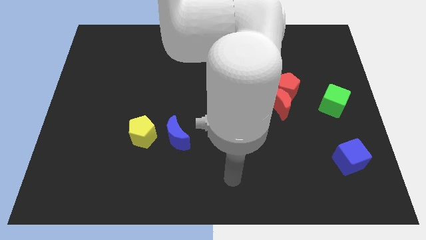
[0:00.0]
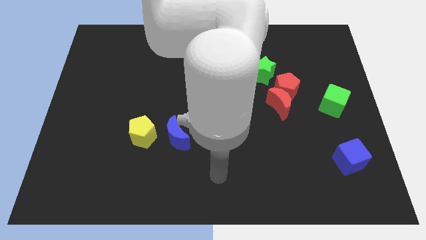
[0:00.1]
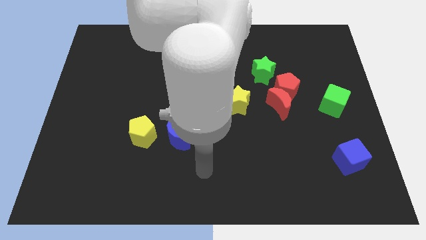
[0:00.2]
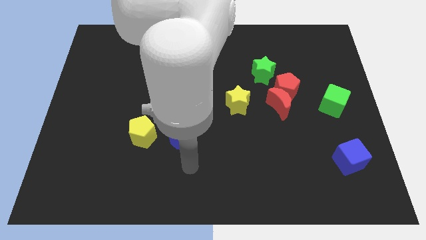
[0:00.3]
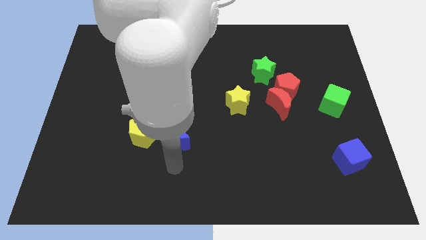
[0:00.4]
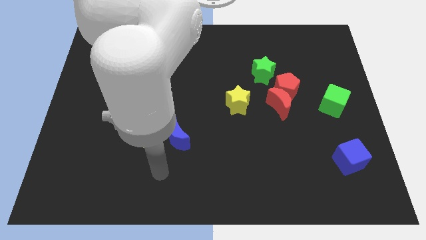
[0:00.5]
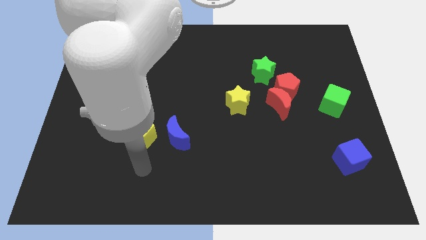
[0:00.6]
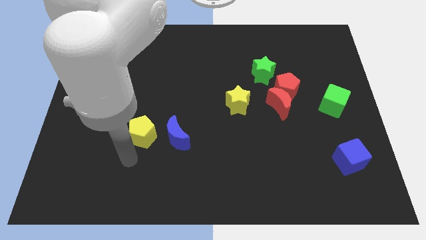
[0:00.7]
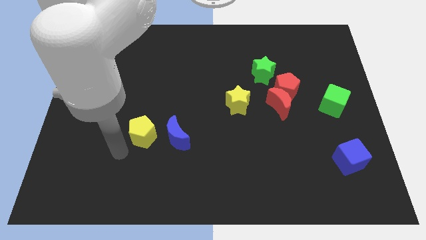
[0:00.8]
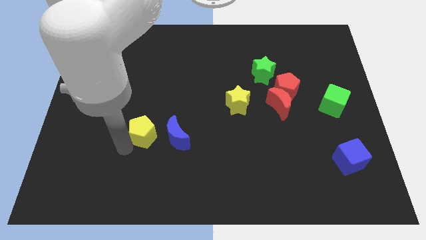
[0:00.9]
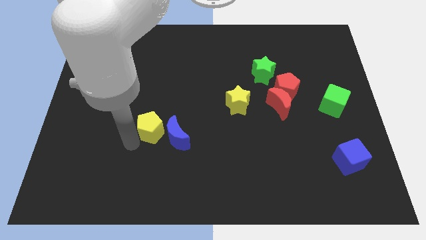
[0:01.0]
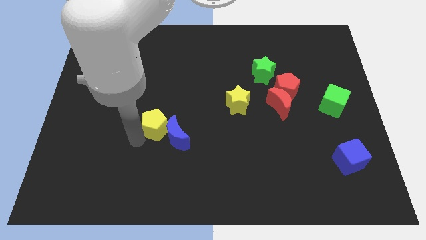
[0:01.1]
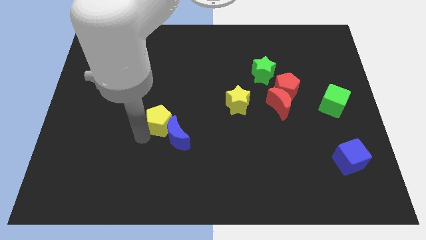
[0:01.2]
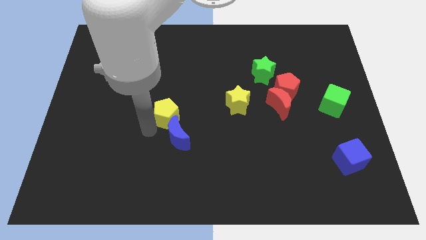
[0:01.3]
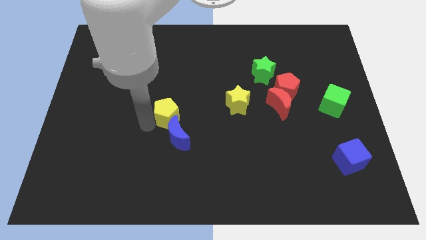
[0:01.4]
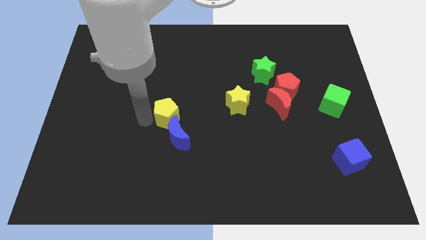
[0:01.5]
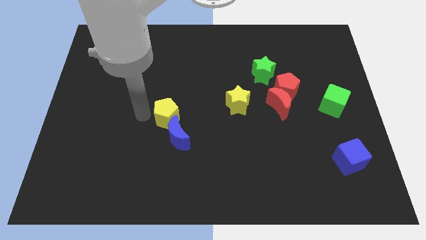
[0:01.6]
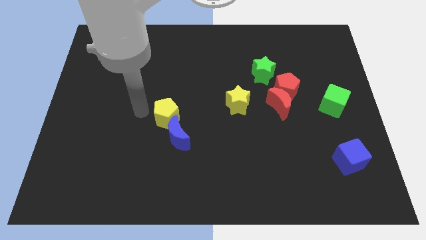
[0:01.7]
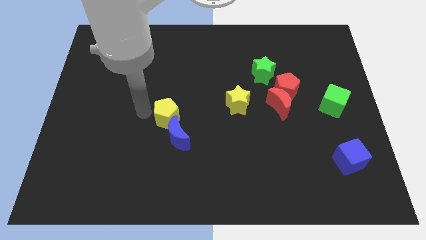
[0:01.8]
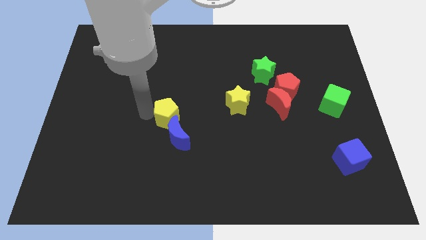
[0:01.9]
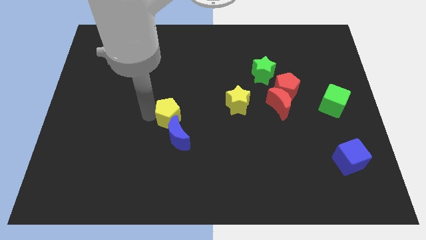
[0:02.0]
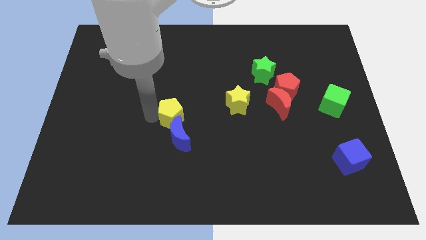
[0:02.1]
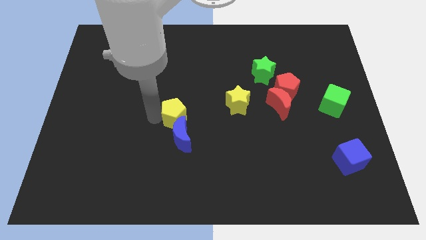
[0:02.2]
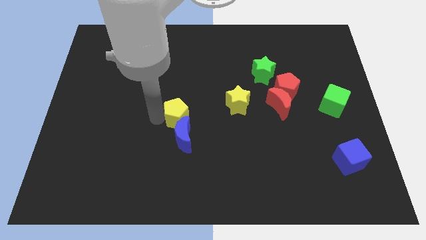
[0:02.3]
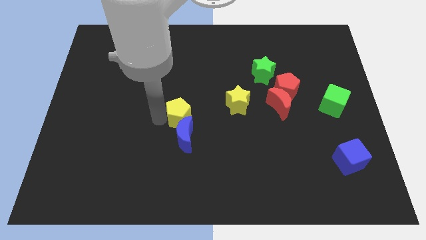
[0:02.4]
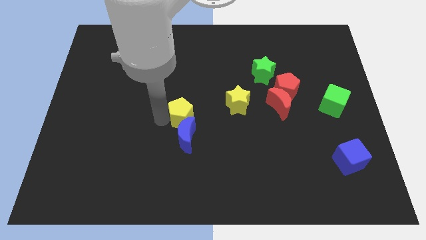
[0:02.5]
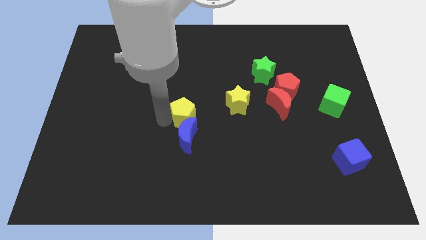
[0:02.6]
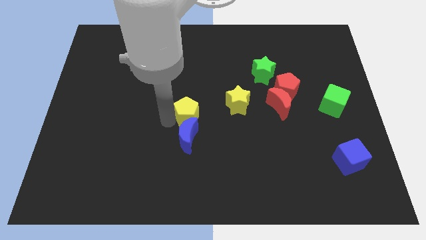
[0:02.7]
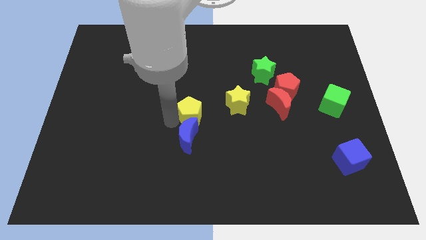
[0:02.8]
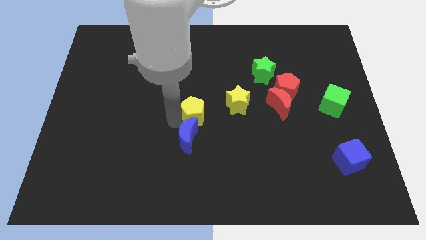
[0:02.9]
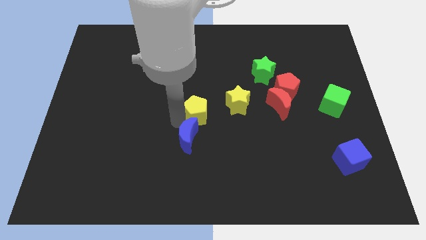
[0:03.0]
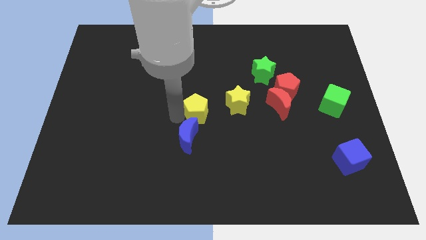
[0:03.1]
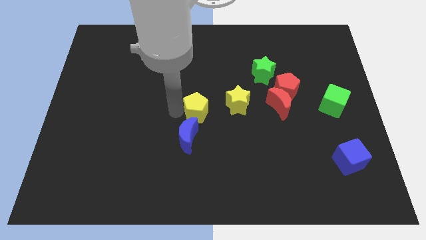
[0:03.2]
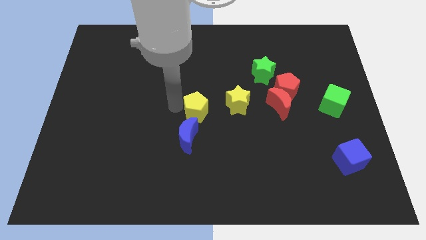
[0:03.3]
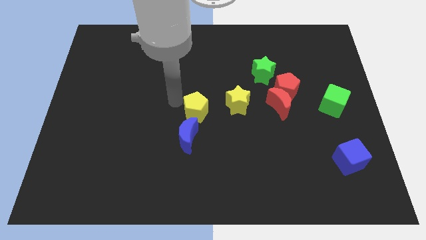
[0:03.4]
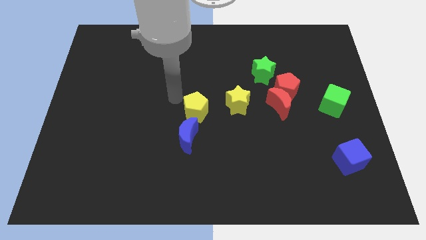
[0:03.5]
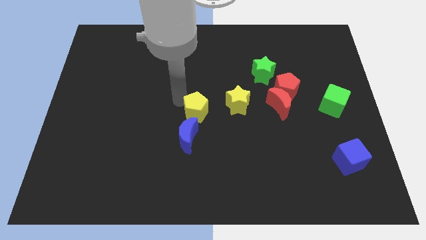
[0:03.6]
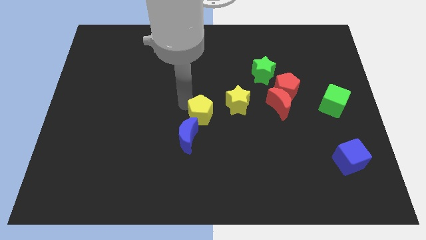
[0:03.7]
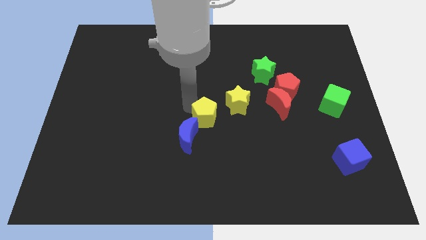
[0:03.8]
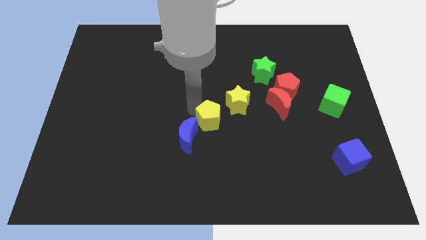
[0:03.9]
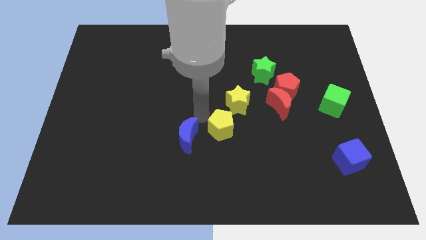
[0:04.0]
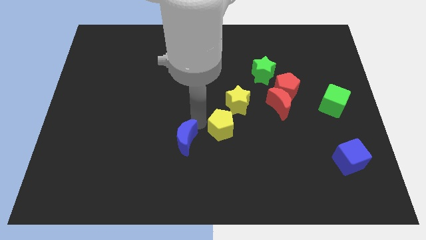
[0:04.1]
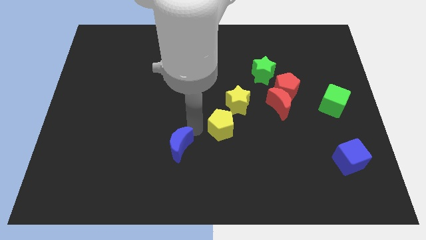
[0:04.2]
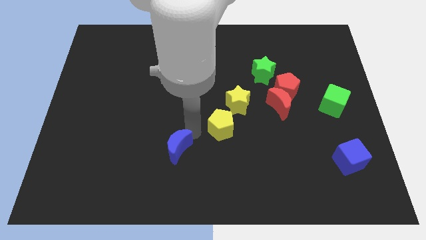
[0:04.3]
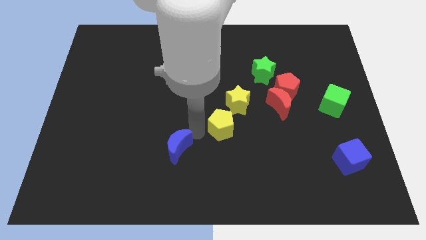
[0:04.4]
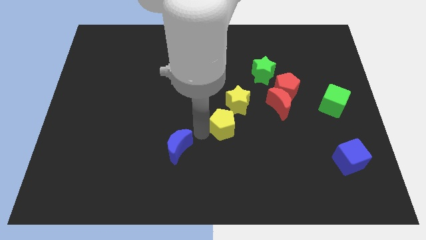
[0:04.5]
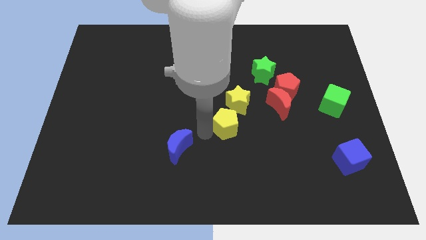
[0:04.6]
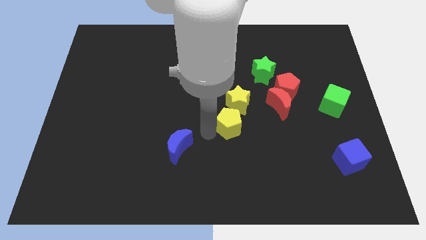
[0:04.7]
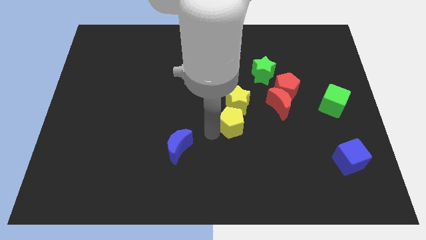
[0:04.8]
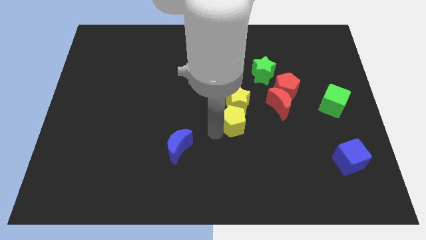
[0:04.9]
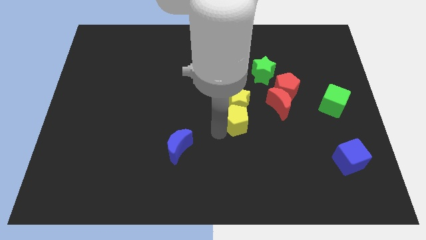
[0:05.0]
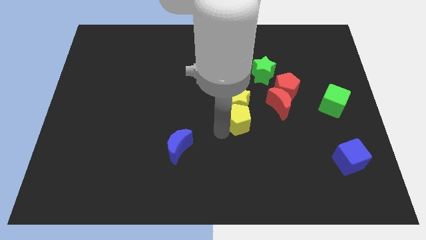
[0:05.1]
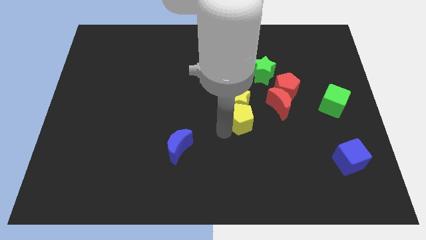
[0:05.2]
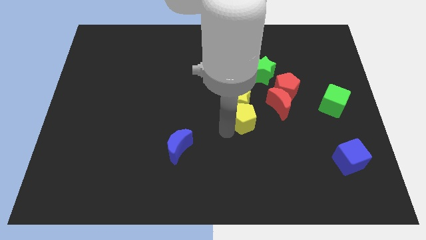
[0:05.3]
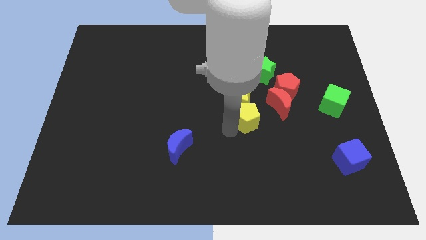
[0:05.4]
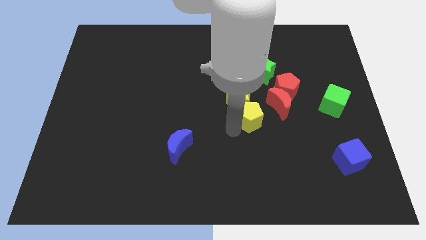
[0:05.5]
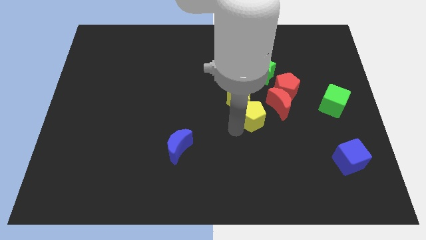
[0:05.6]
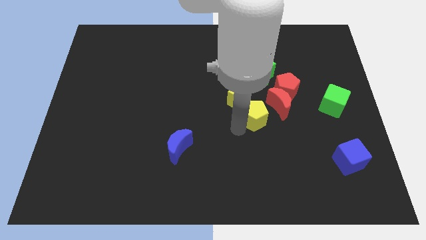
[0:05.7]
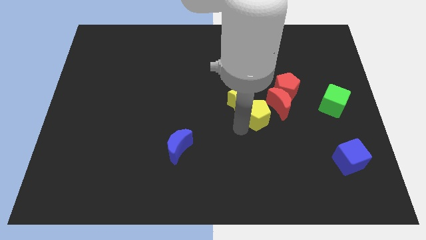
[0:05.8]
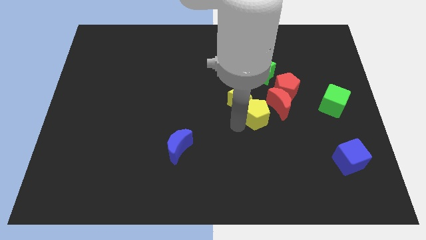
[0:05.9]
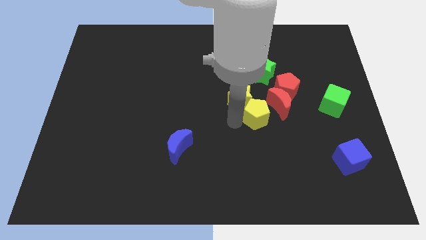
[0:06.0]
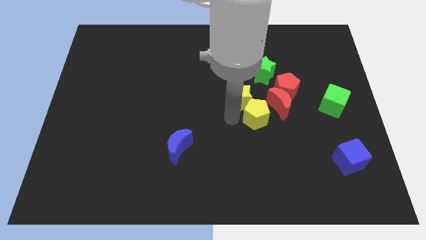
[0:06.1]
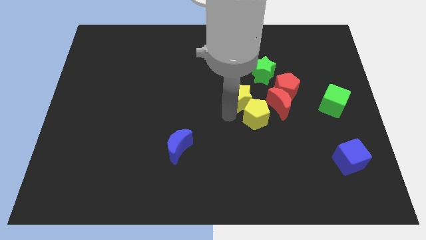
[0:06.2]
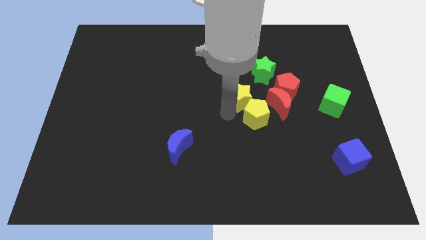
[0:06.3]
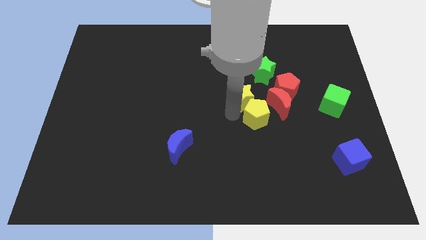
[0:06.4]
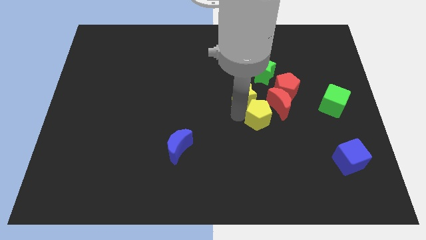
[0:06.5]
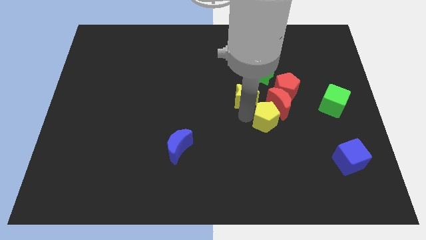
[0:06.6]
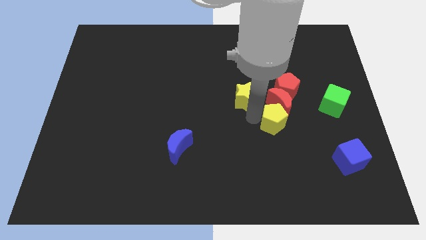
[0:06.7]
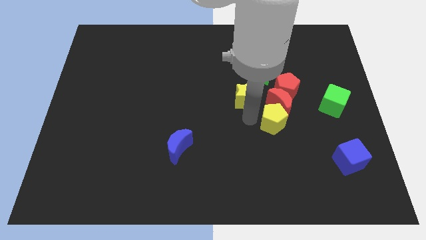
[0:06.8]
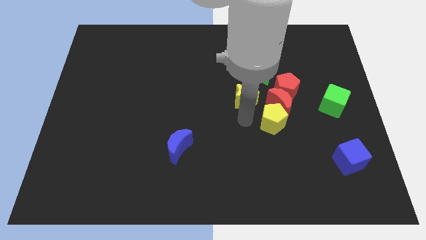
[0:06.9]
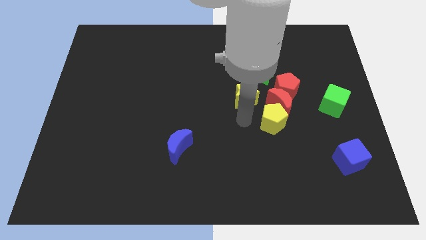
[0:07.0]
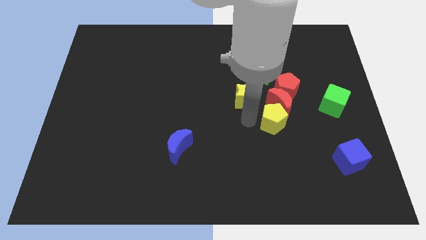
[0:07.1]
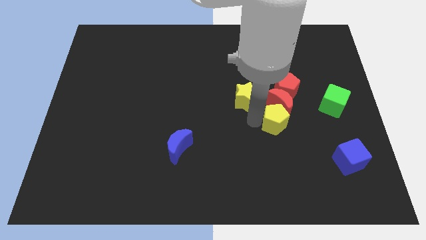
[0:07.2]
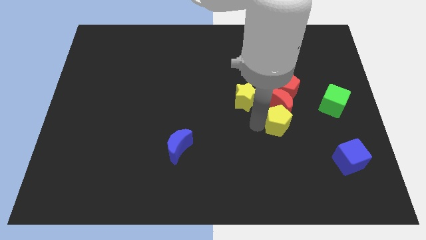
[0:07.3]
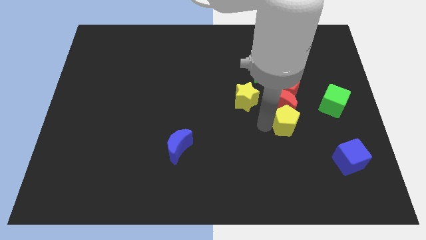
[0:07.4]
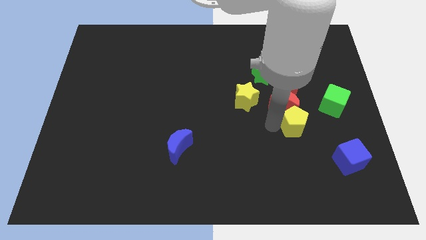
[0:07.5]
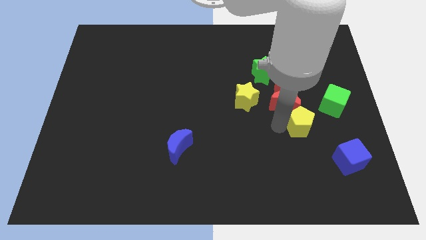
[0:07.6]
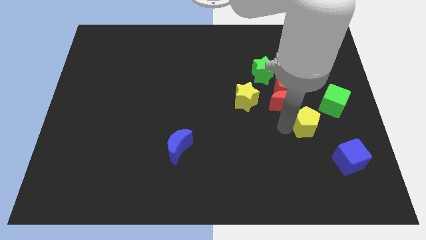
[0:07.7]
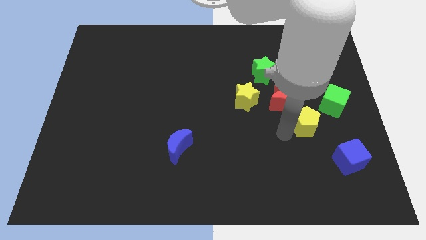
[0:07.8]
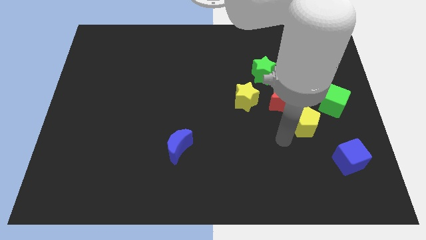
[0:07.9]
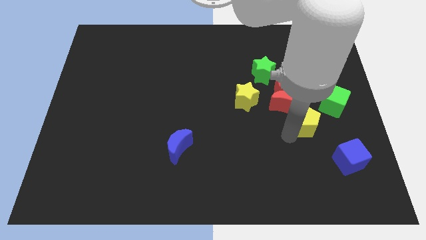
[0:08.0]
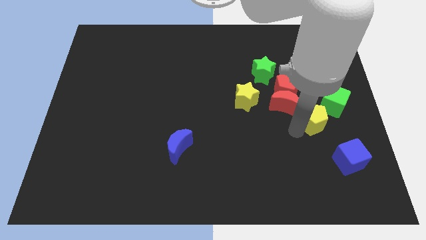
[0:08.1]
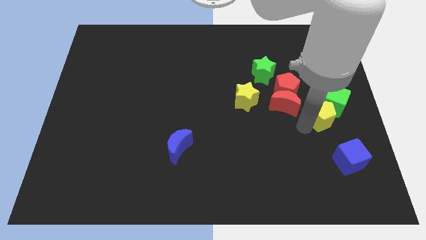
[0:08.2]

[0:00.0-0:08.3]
put the yellow pentagon close to the green cube
